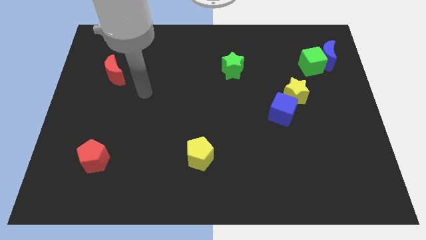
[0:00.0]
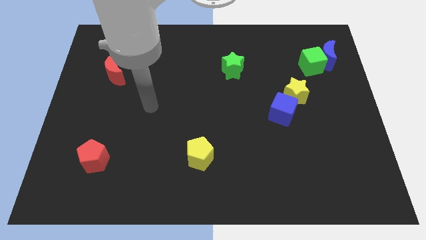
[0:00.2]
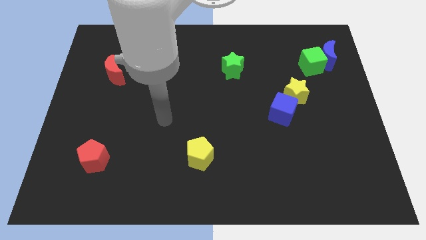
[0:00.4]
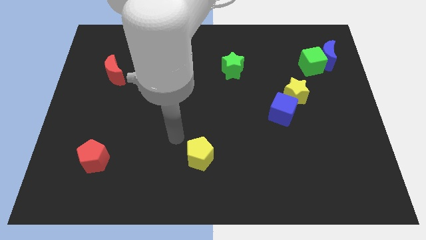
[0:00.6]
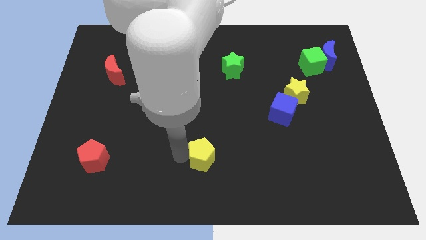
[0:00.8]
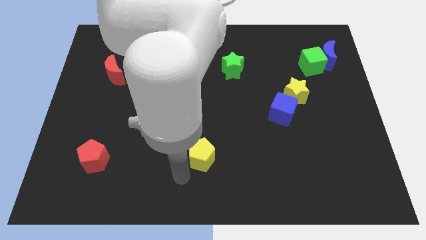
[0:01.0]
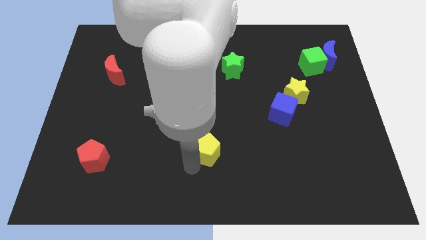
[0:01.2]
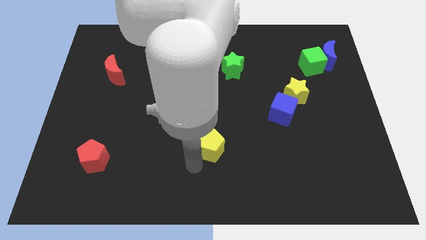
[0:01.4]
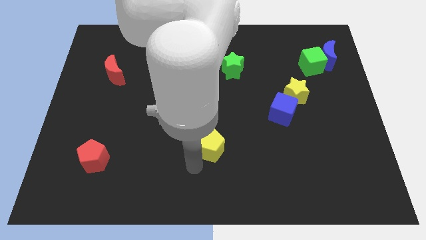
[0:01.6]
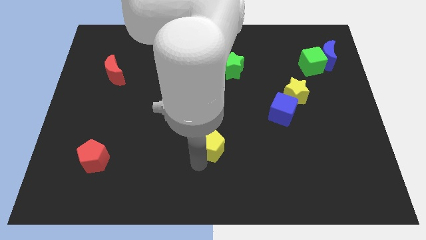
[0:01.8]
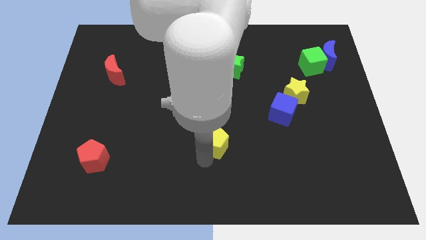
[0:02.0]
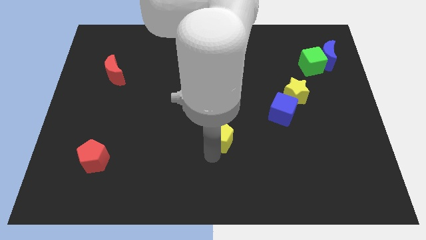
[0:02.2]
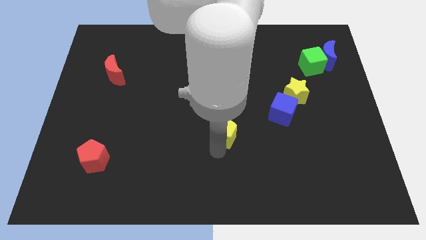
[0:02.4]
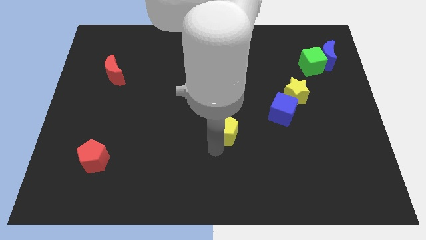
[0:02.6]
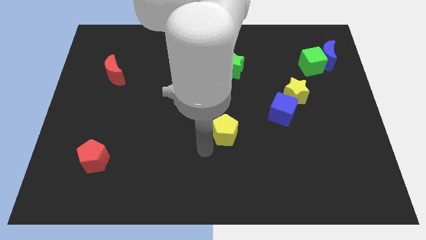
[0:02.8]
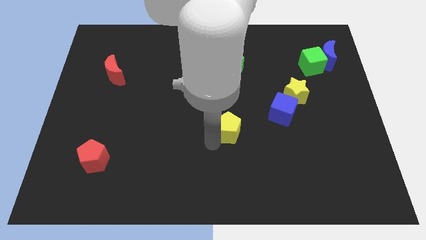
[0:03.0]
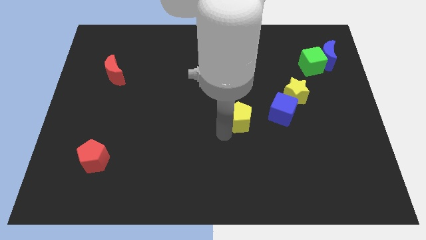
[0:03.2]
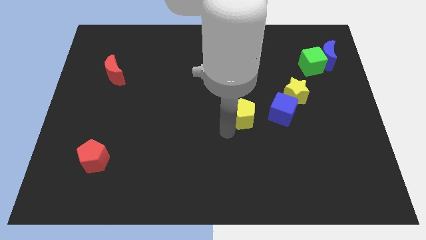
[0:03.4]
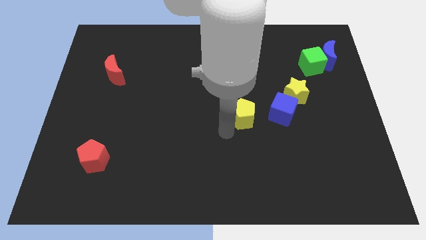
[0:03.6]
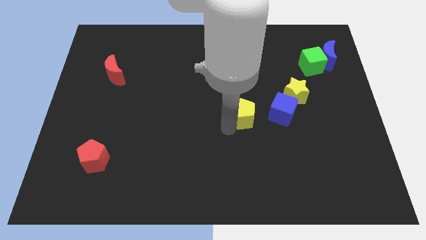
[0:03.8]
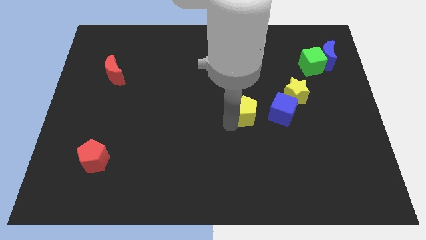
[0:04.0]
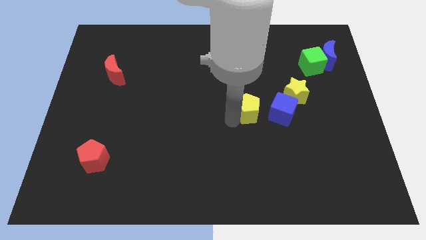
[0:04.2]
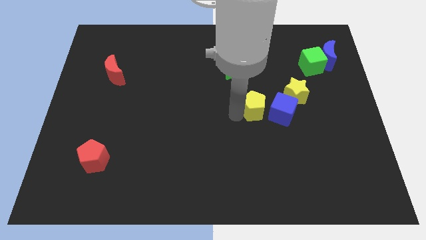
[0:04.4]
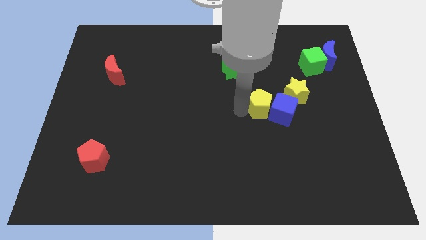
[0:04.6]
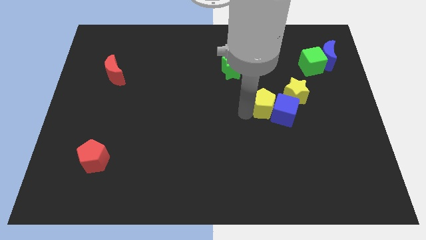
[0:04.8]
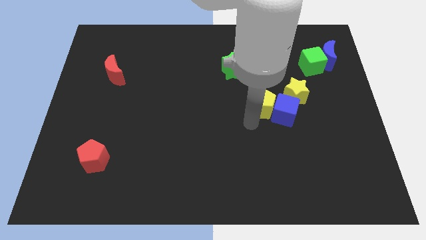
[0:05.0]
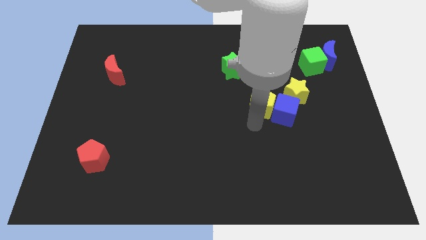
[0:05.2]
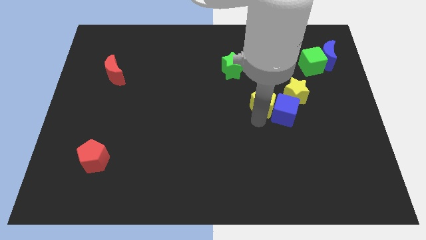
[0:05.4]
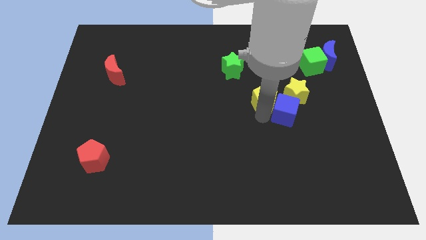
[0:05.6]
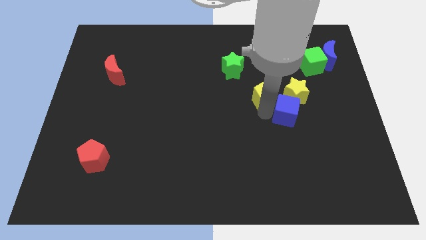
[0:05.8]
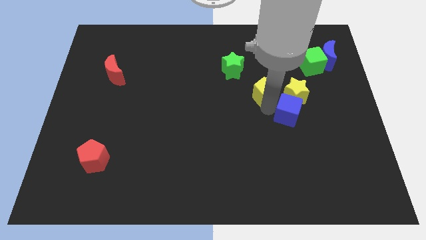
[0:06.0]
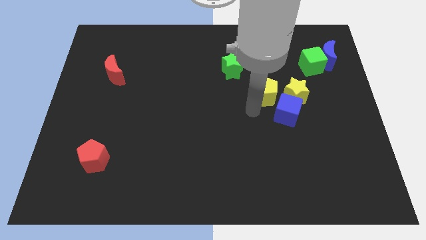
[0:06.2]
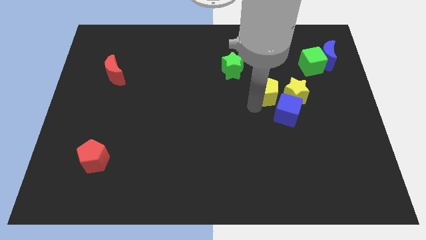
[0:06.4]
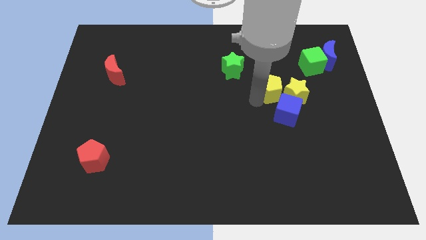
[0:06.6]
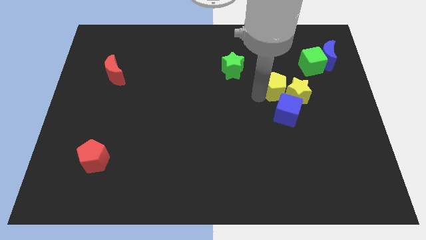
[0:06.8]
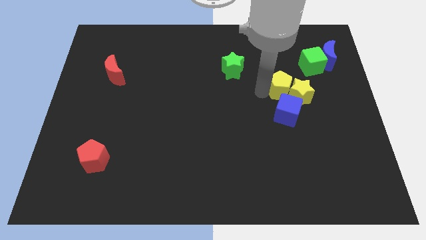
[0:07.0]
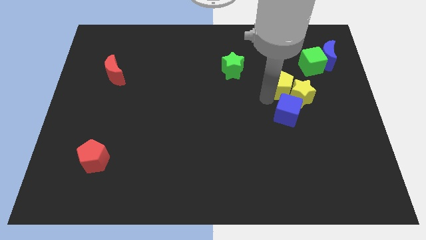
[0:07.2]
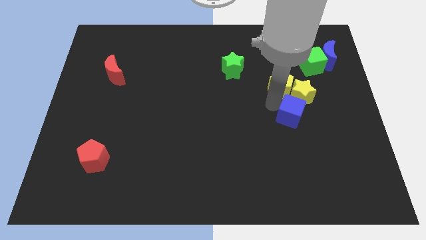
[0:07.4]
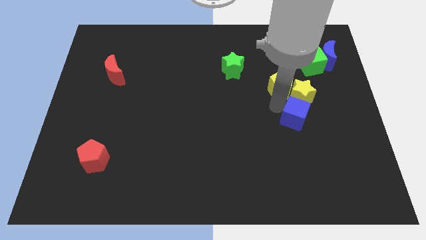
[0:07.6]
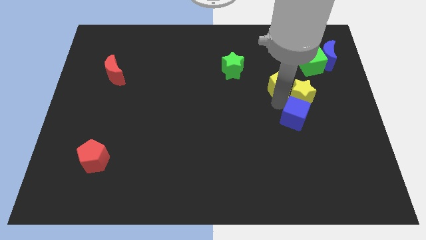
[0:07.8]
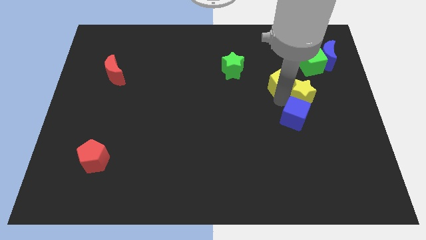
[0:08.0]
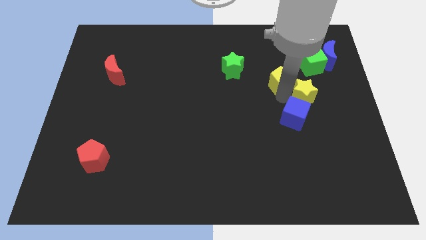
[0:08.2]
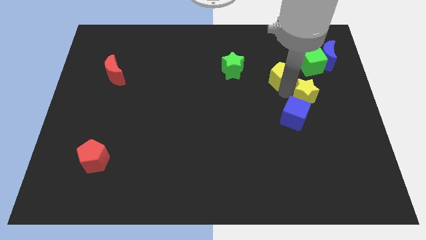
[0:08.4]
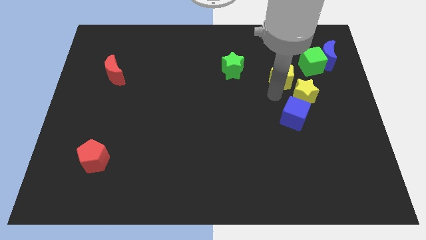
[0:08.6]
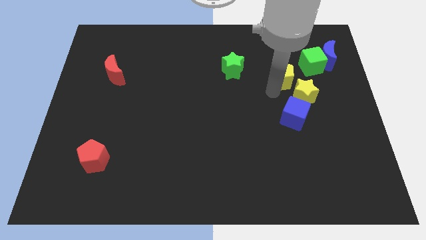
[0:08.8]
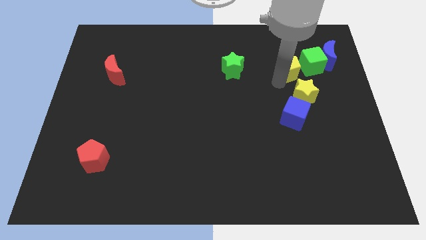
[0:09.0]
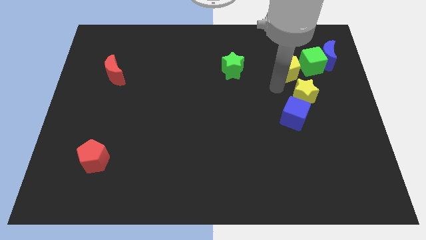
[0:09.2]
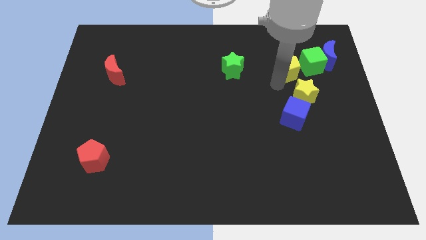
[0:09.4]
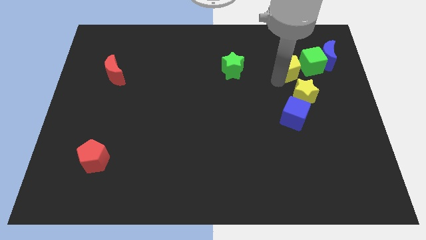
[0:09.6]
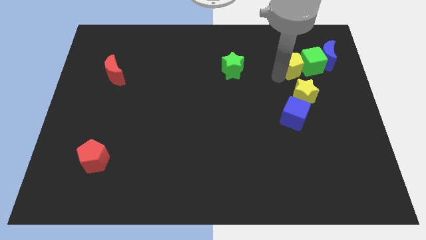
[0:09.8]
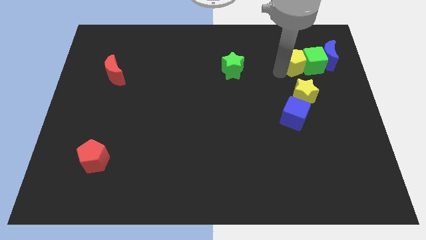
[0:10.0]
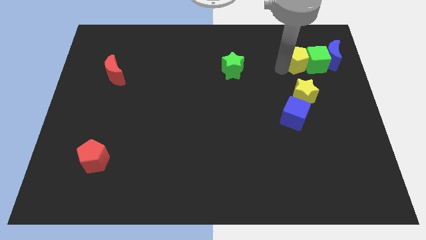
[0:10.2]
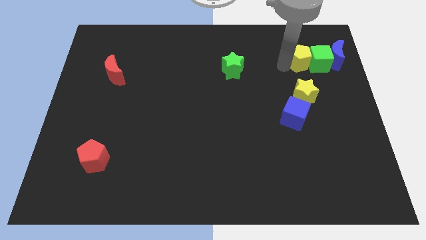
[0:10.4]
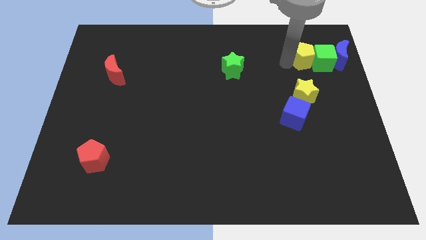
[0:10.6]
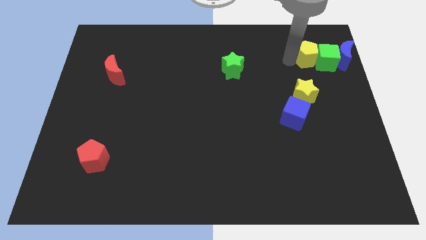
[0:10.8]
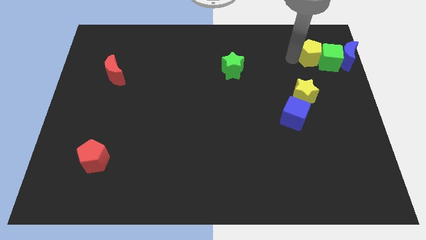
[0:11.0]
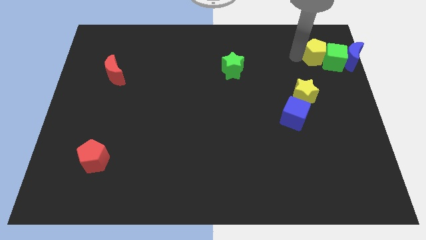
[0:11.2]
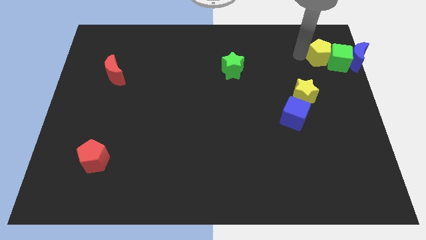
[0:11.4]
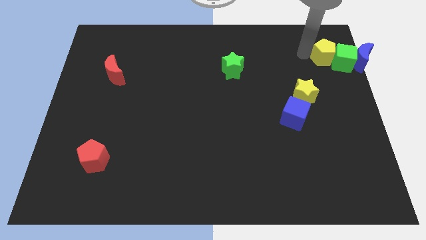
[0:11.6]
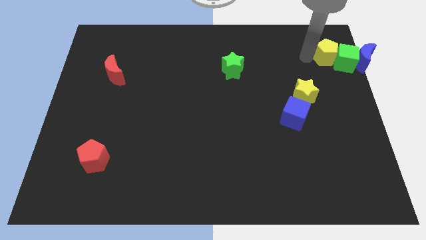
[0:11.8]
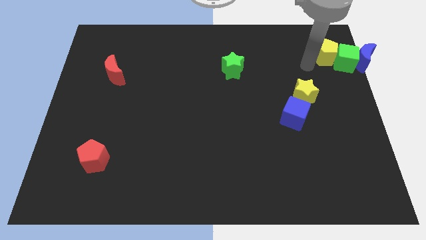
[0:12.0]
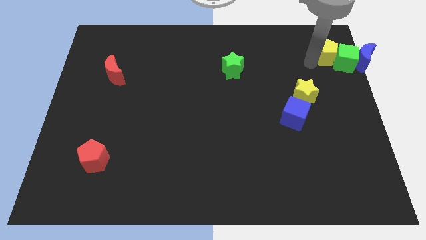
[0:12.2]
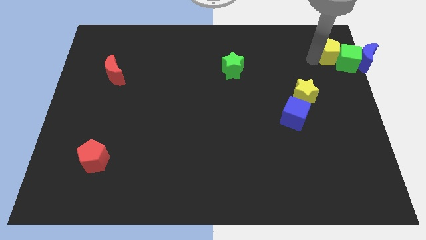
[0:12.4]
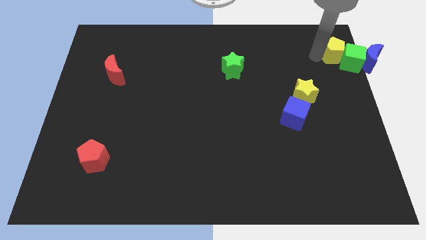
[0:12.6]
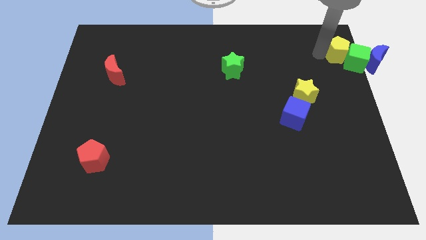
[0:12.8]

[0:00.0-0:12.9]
push the yellow pentagon to the top right
